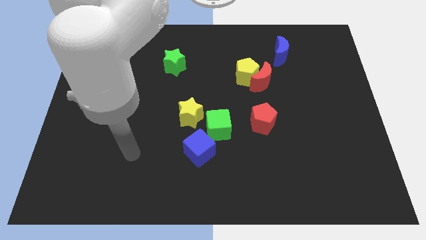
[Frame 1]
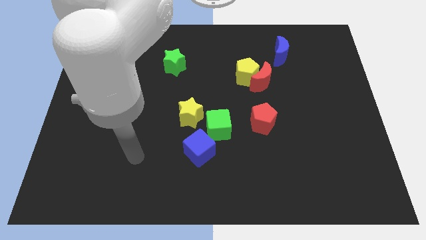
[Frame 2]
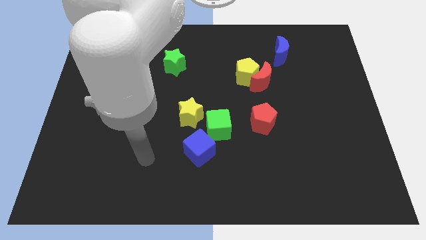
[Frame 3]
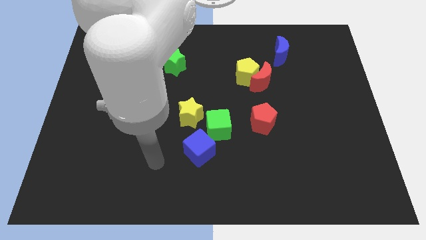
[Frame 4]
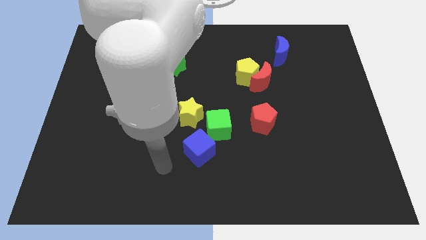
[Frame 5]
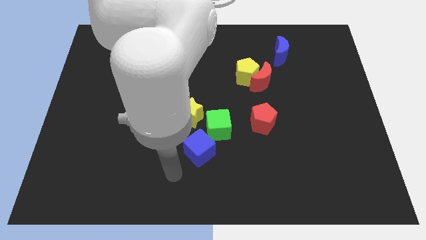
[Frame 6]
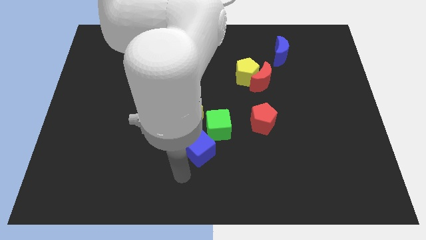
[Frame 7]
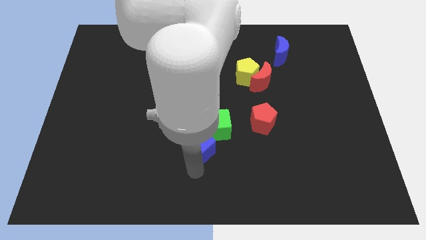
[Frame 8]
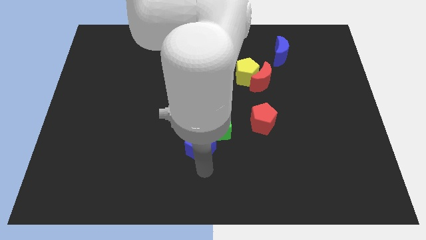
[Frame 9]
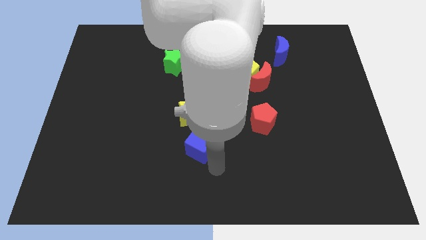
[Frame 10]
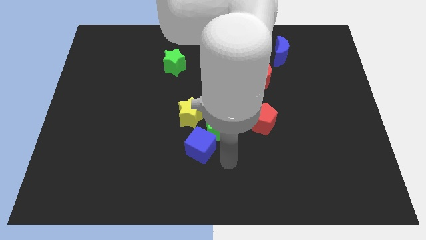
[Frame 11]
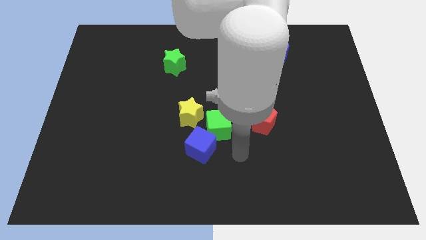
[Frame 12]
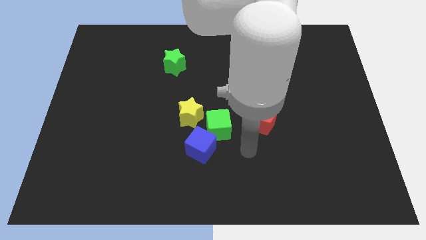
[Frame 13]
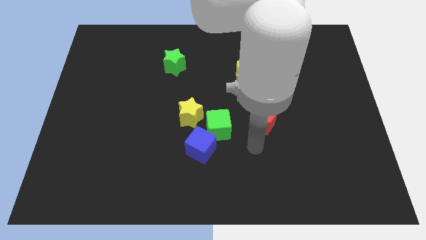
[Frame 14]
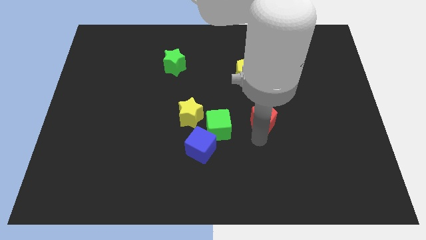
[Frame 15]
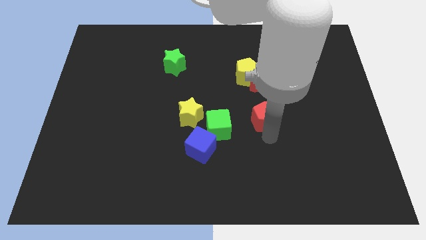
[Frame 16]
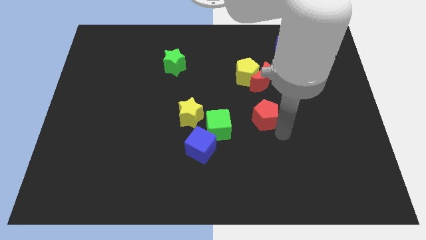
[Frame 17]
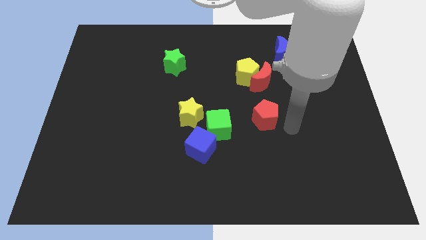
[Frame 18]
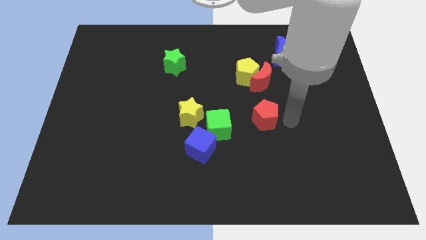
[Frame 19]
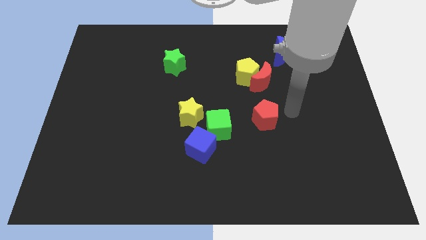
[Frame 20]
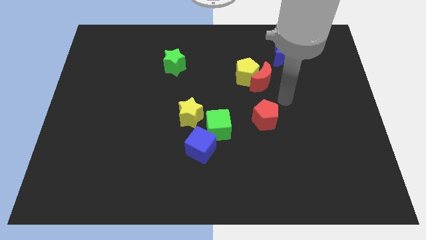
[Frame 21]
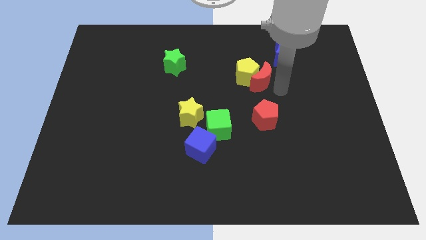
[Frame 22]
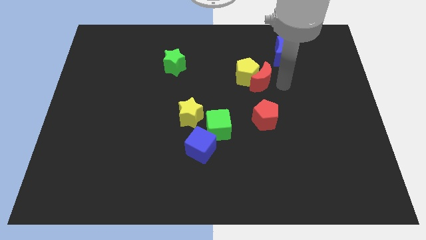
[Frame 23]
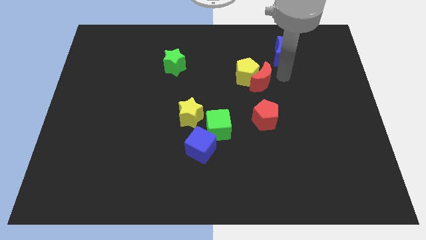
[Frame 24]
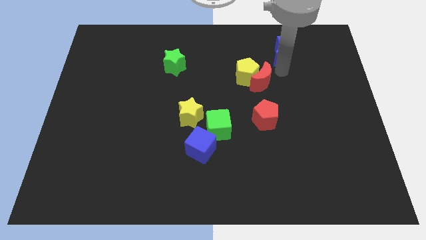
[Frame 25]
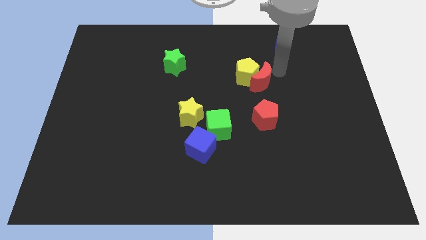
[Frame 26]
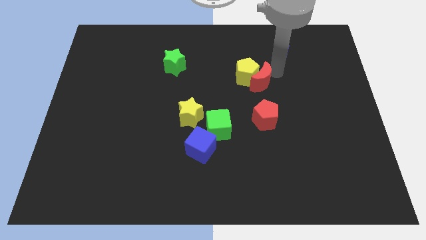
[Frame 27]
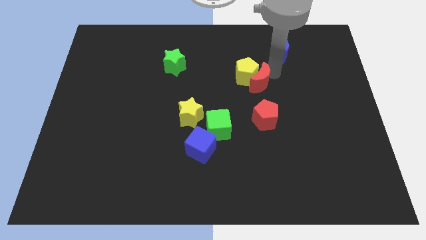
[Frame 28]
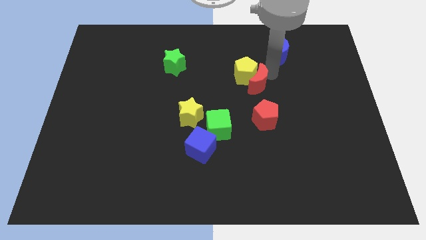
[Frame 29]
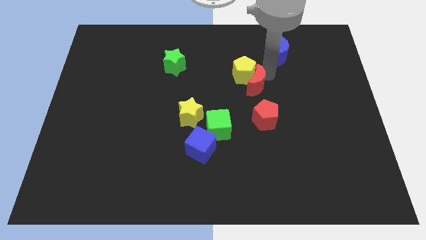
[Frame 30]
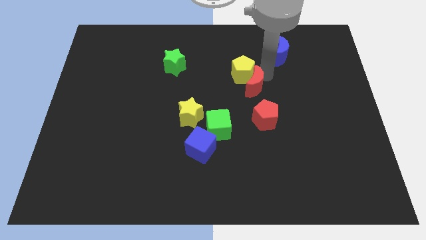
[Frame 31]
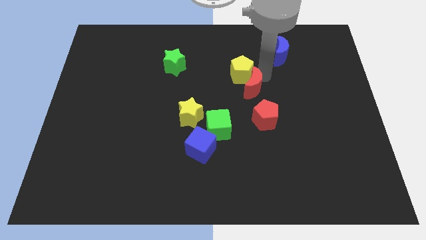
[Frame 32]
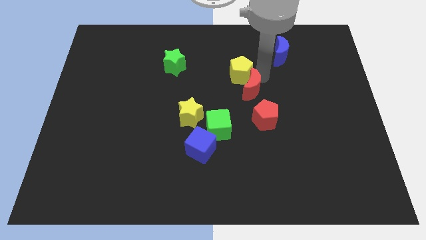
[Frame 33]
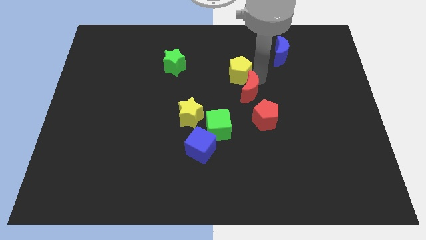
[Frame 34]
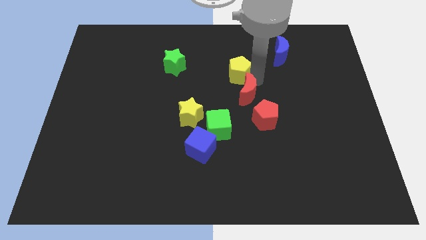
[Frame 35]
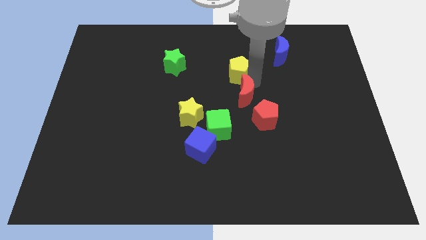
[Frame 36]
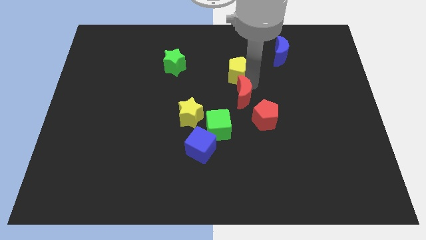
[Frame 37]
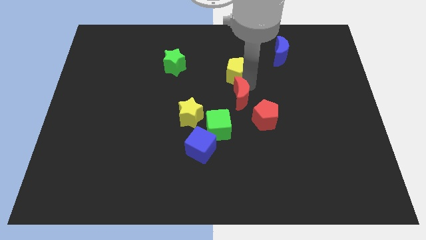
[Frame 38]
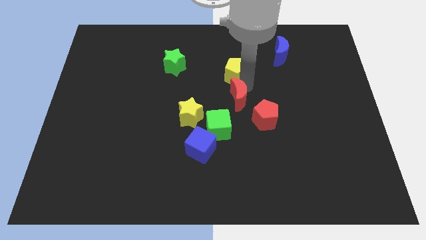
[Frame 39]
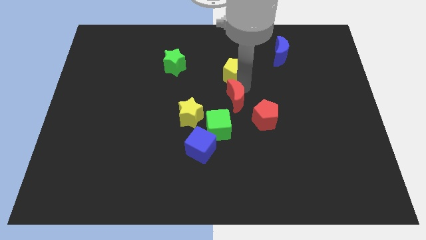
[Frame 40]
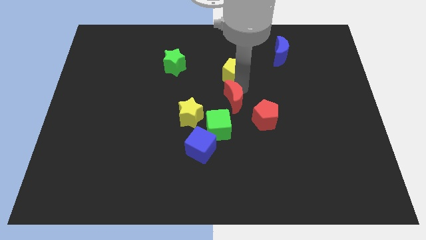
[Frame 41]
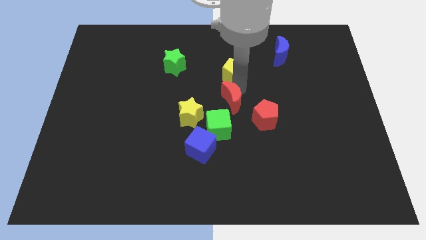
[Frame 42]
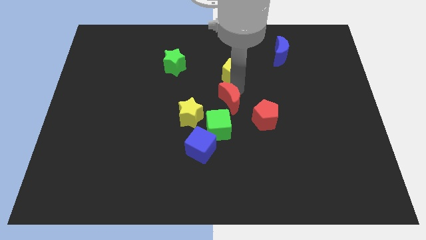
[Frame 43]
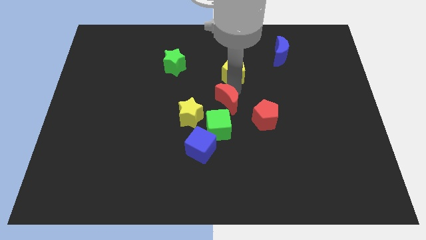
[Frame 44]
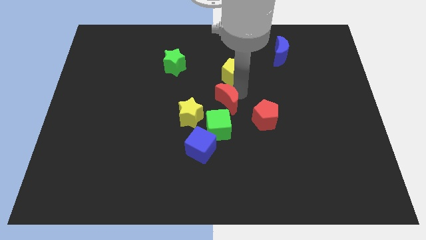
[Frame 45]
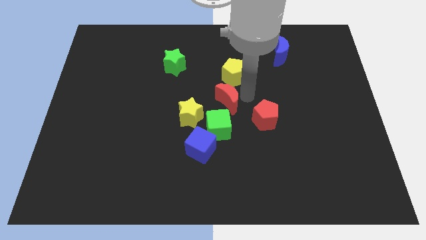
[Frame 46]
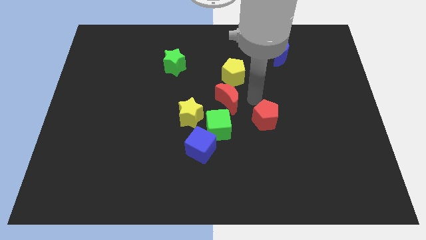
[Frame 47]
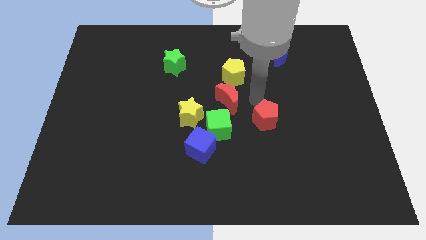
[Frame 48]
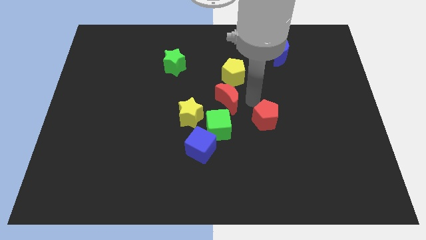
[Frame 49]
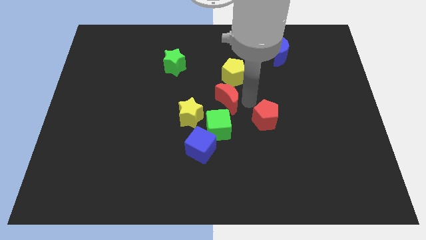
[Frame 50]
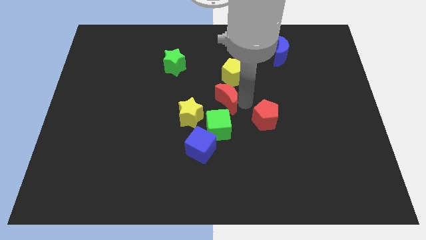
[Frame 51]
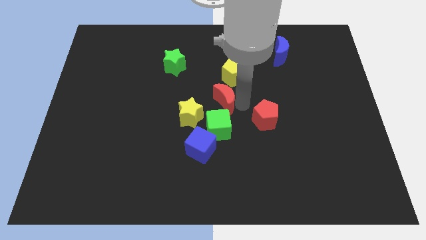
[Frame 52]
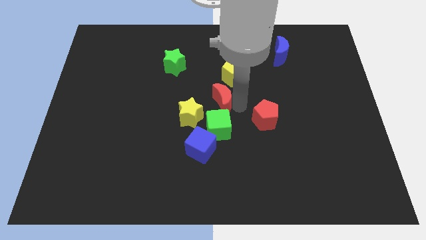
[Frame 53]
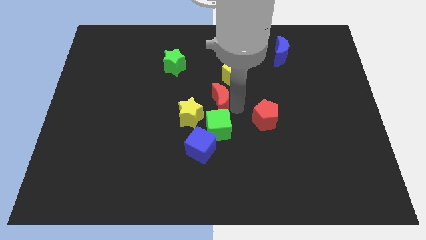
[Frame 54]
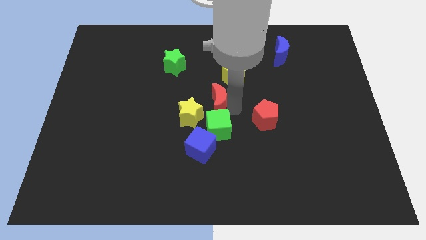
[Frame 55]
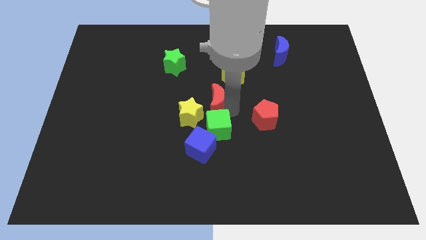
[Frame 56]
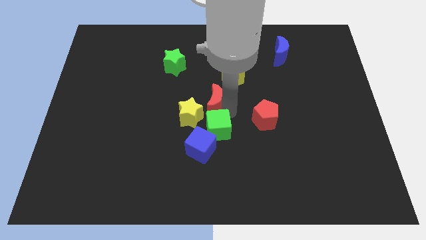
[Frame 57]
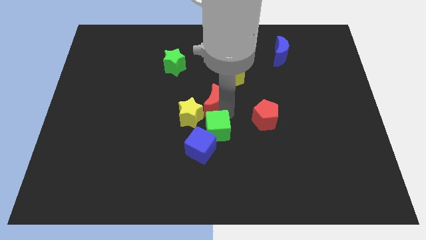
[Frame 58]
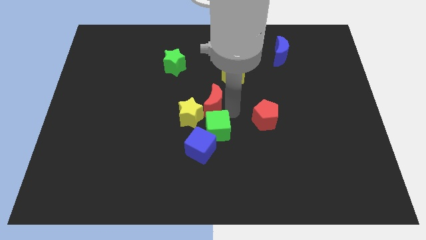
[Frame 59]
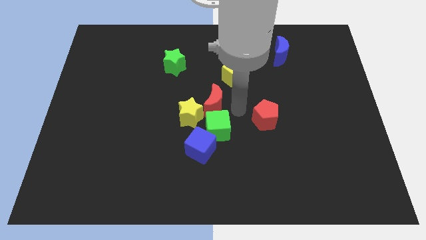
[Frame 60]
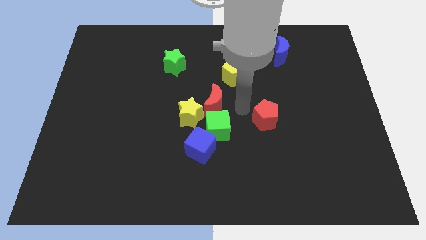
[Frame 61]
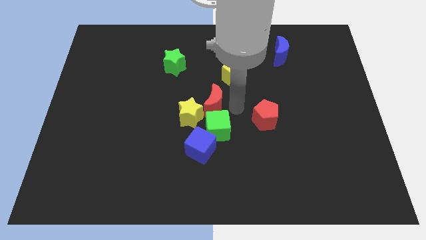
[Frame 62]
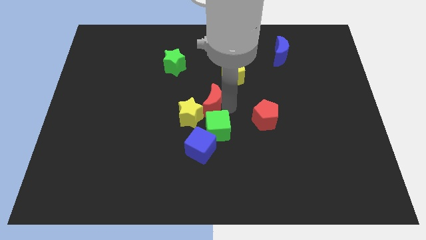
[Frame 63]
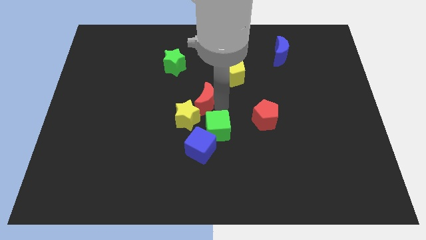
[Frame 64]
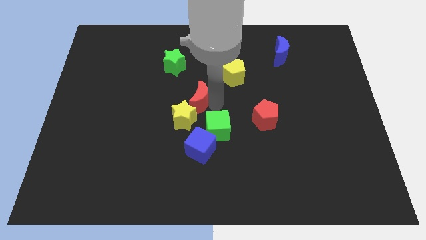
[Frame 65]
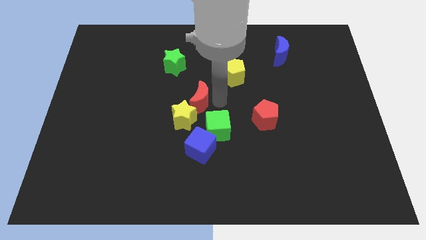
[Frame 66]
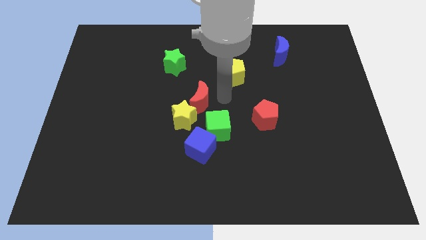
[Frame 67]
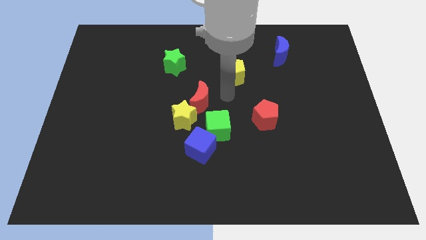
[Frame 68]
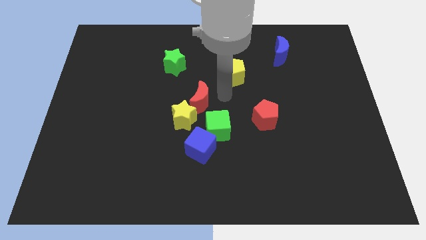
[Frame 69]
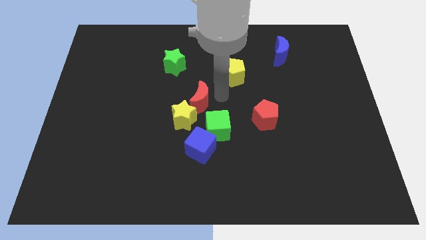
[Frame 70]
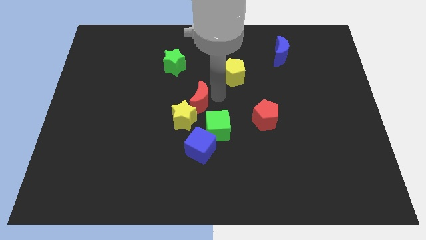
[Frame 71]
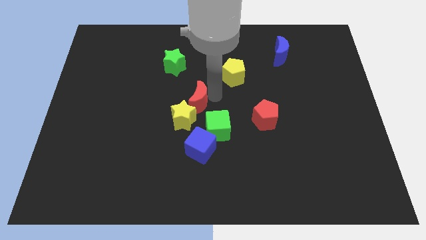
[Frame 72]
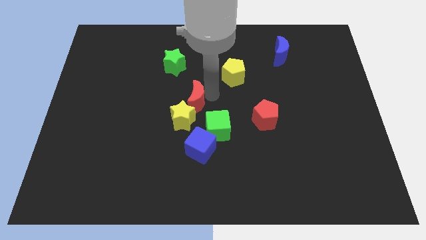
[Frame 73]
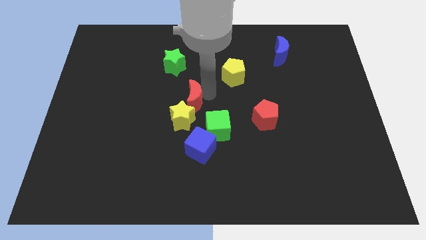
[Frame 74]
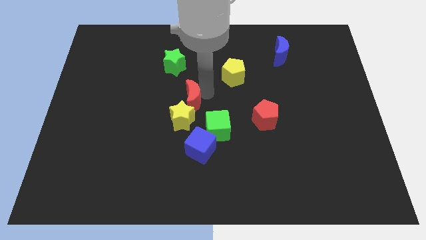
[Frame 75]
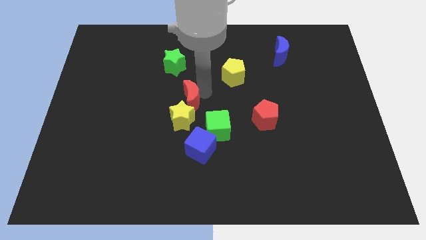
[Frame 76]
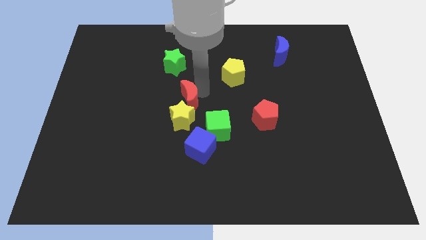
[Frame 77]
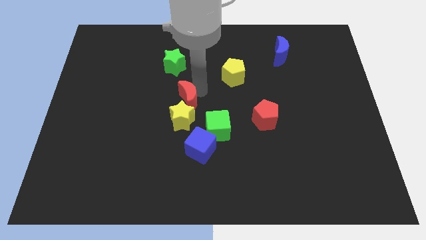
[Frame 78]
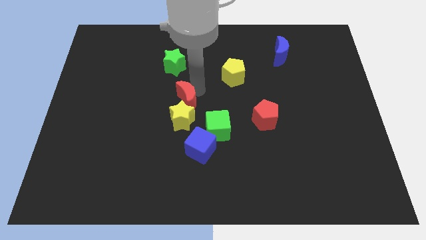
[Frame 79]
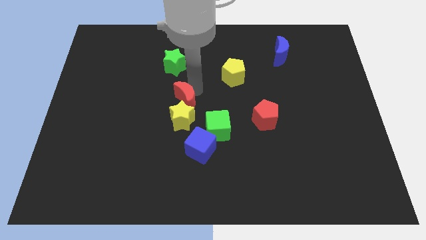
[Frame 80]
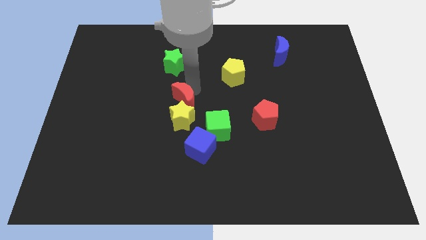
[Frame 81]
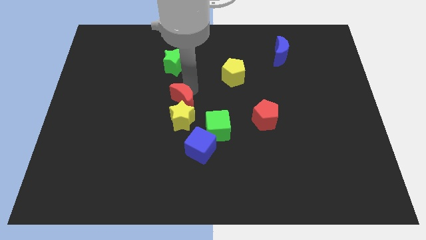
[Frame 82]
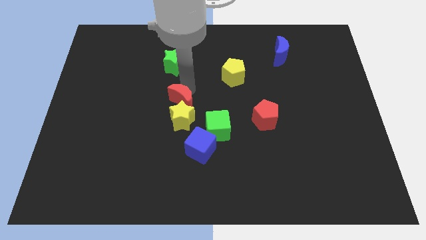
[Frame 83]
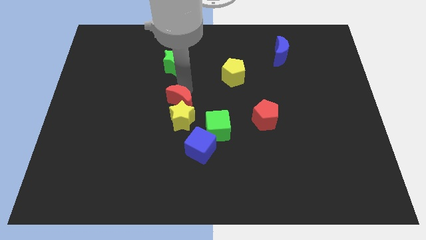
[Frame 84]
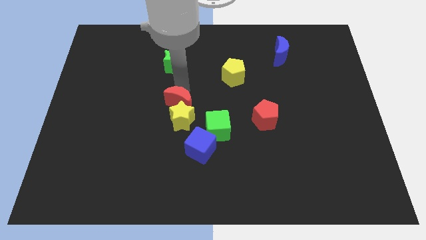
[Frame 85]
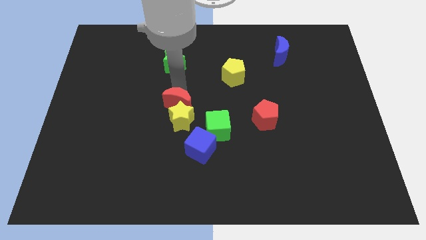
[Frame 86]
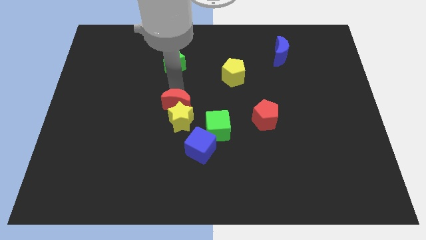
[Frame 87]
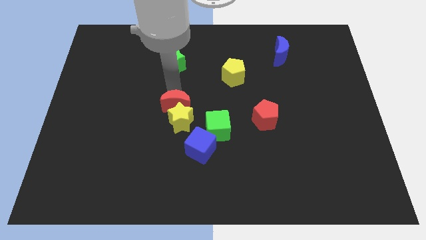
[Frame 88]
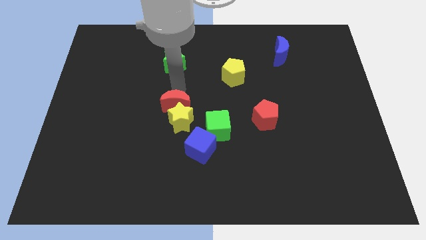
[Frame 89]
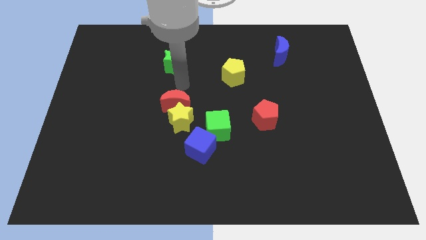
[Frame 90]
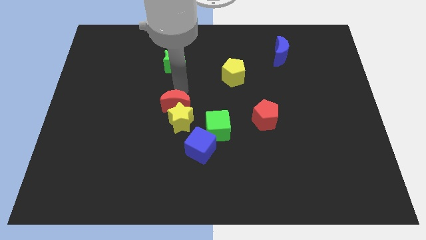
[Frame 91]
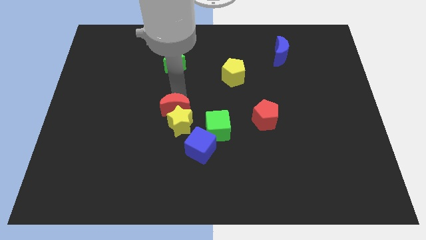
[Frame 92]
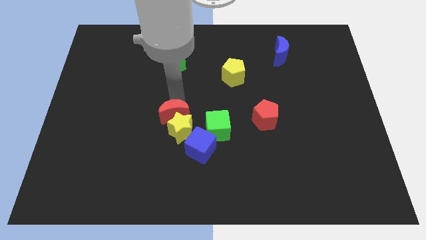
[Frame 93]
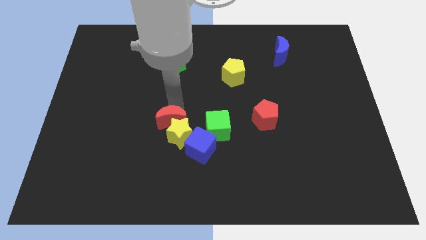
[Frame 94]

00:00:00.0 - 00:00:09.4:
push the red moon diagonally down and to the left
